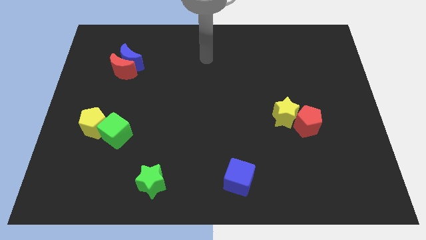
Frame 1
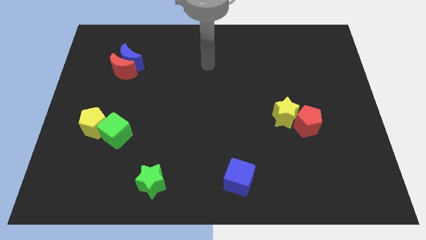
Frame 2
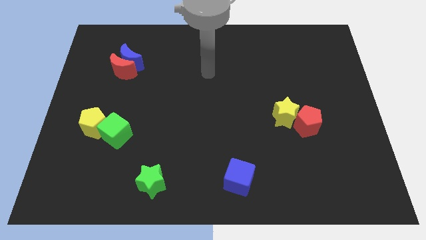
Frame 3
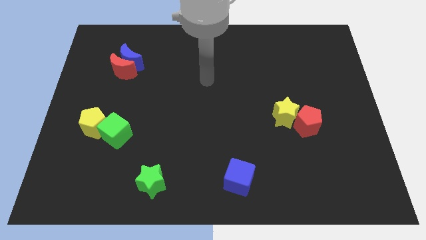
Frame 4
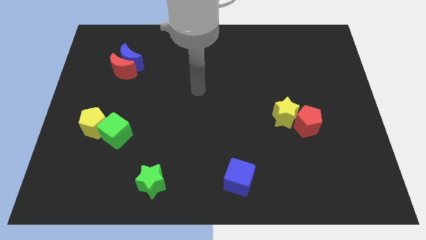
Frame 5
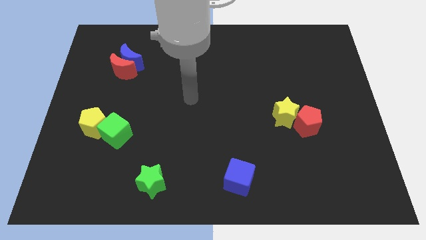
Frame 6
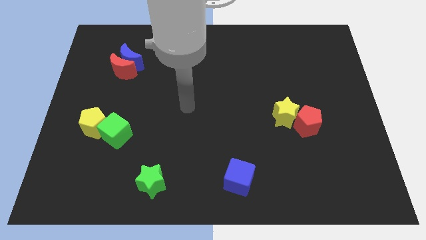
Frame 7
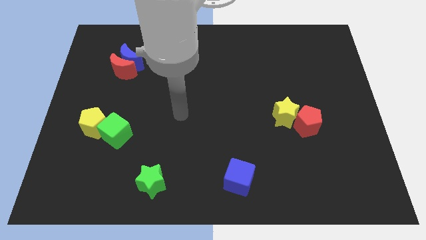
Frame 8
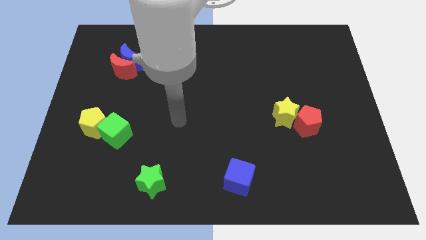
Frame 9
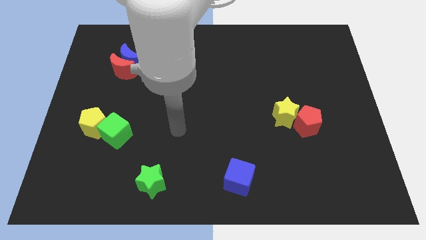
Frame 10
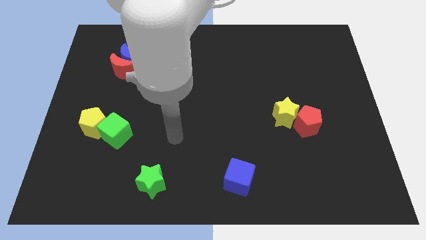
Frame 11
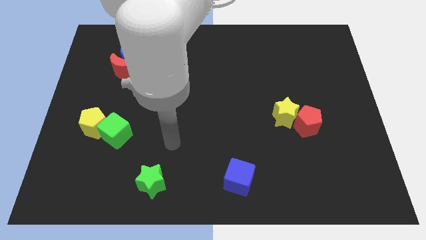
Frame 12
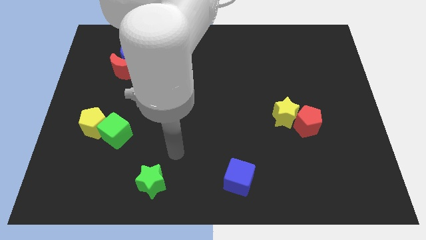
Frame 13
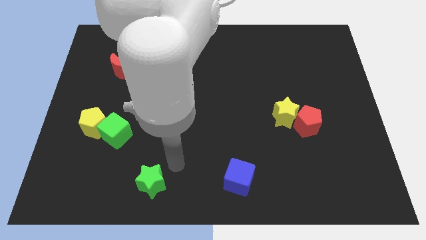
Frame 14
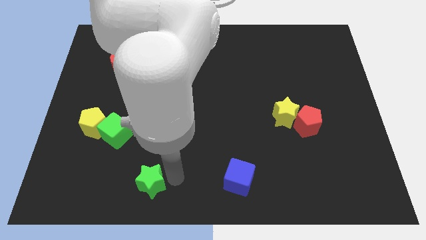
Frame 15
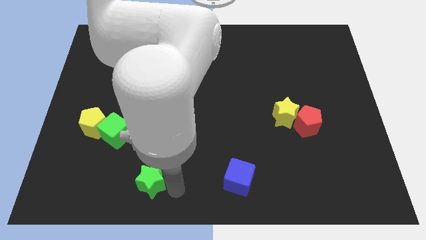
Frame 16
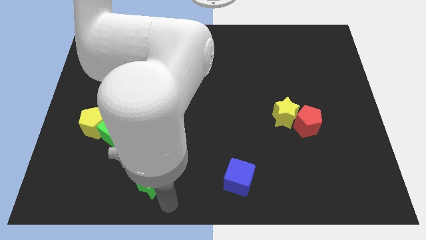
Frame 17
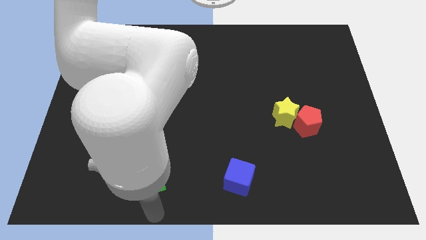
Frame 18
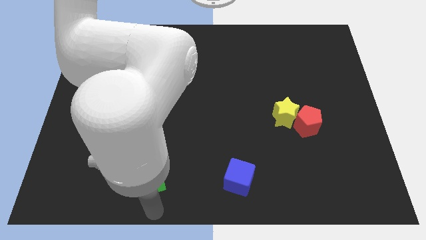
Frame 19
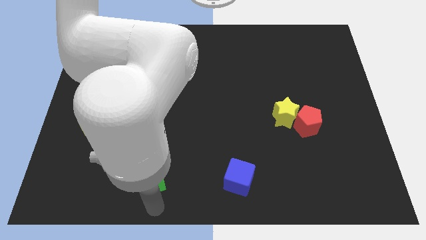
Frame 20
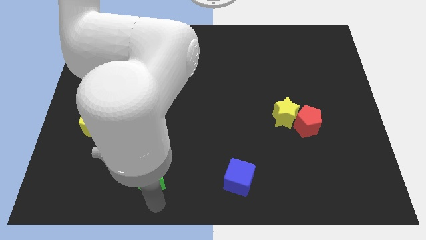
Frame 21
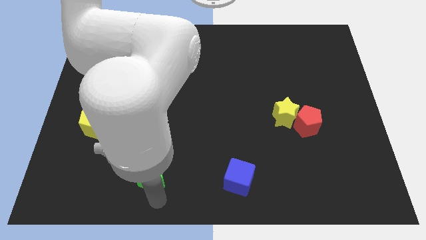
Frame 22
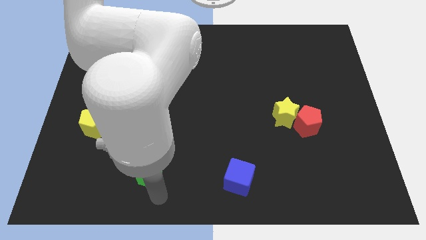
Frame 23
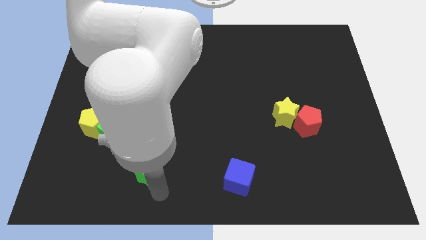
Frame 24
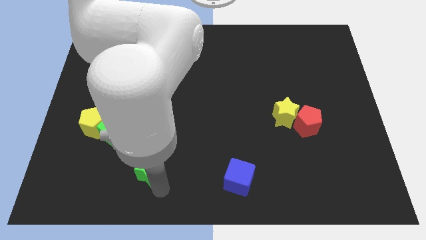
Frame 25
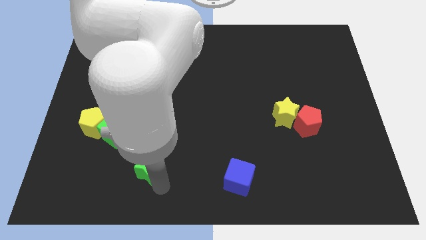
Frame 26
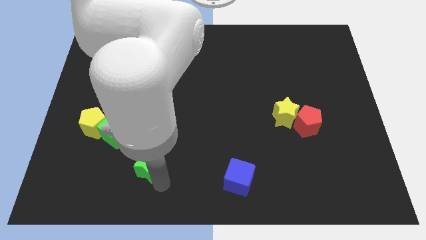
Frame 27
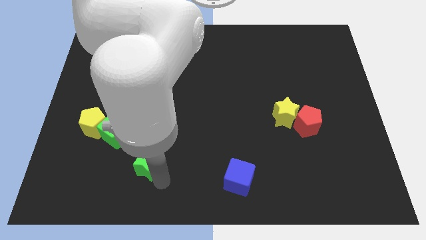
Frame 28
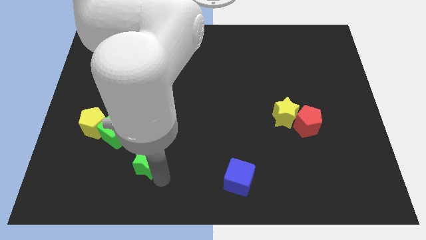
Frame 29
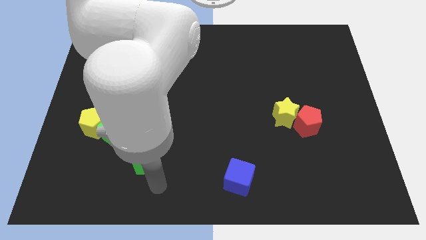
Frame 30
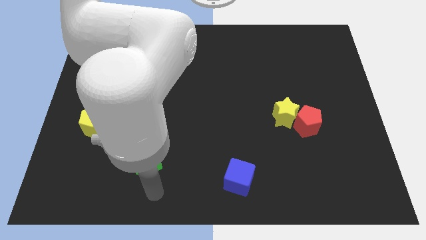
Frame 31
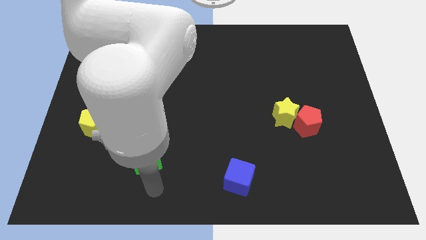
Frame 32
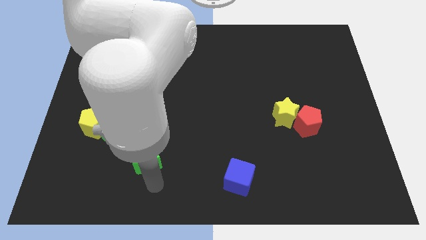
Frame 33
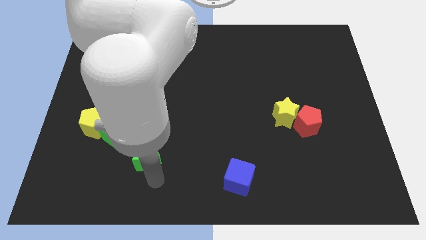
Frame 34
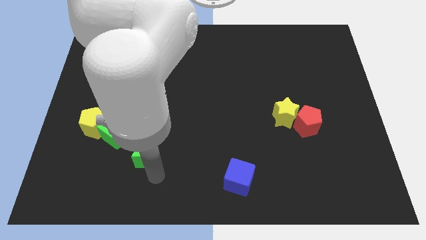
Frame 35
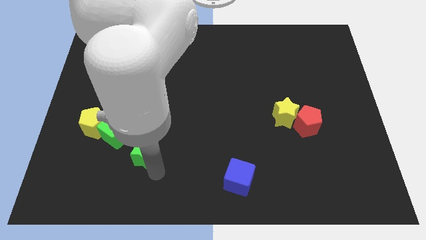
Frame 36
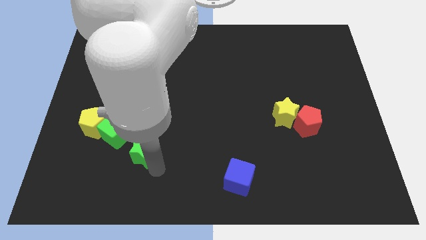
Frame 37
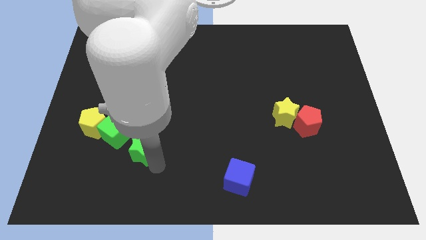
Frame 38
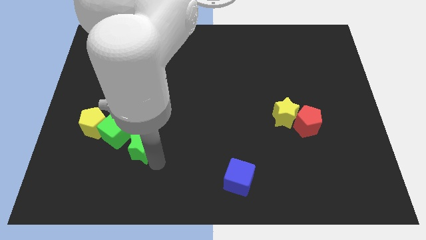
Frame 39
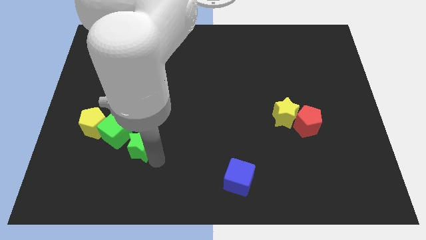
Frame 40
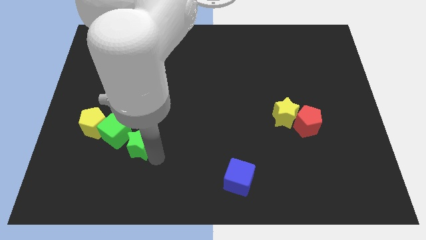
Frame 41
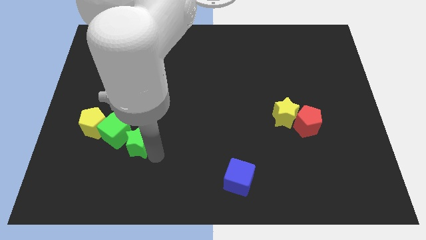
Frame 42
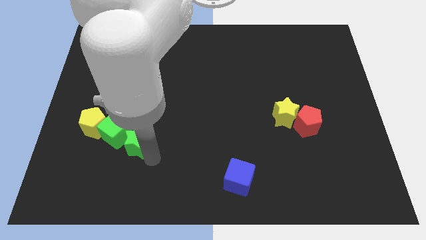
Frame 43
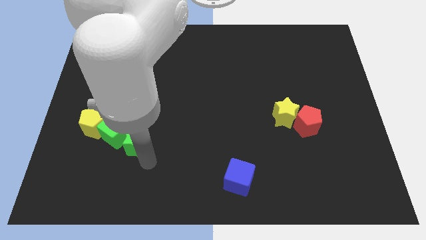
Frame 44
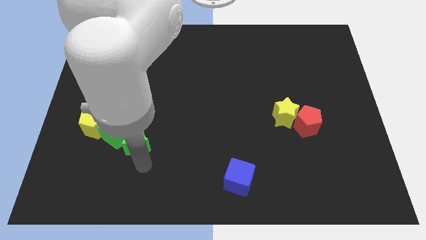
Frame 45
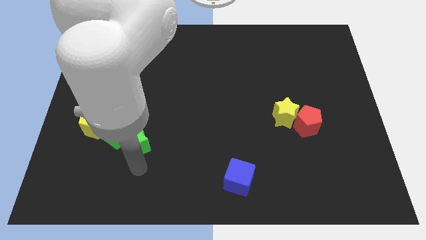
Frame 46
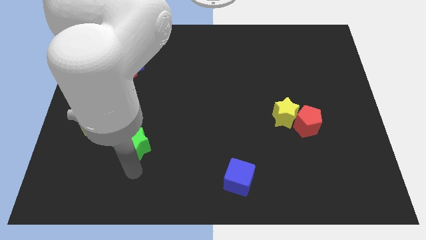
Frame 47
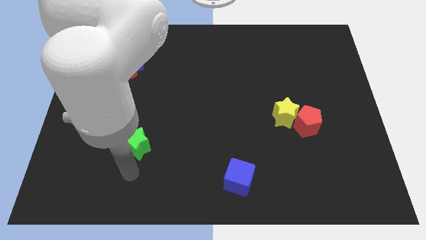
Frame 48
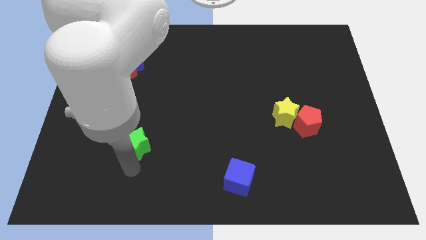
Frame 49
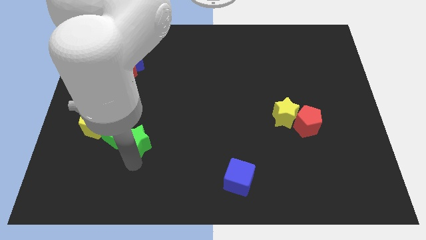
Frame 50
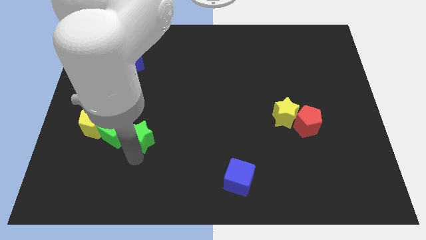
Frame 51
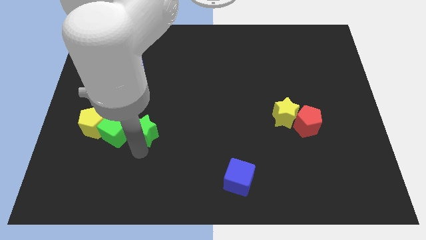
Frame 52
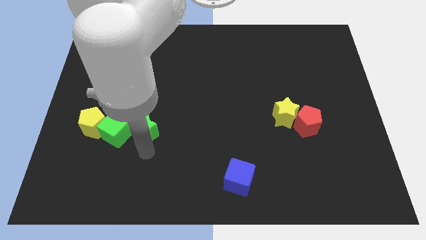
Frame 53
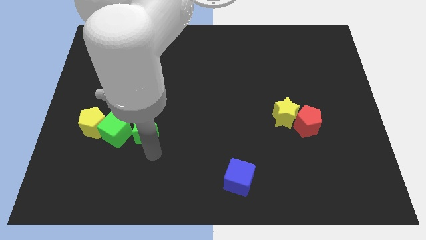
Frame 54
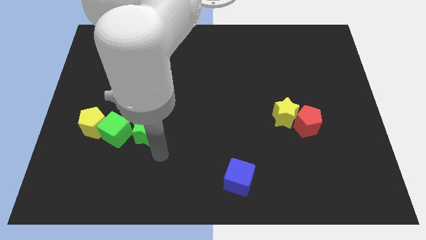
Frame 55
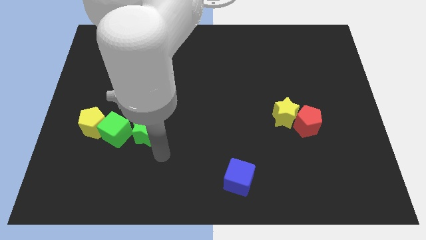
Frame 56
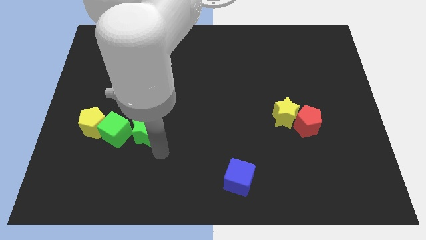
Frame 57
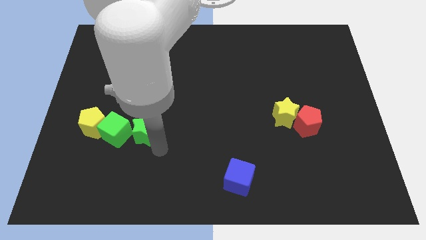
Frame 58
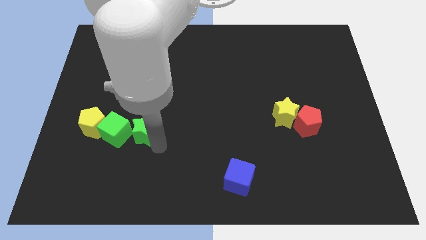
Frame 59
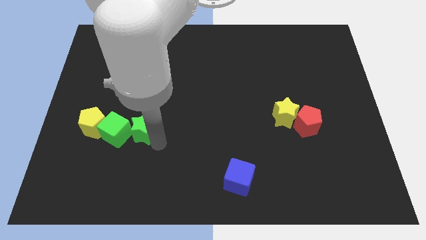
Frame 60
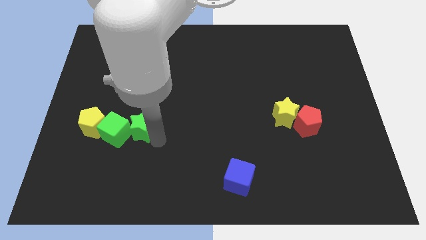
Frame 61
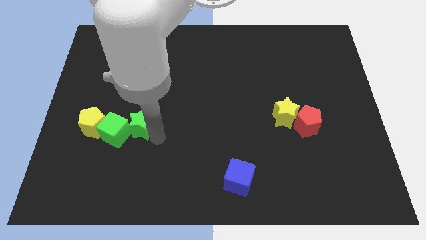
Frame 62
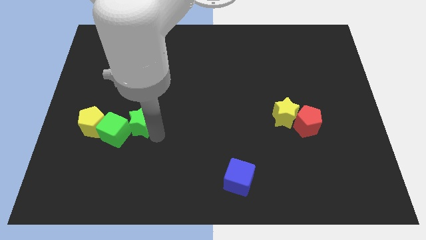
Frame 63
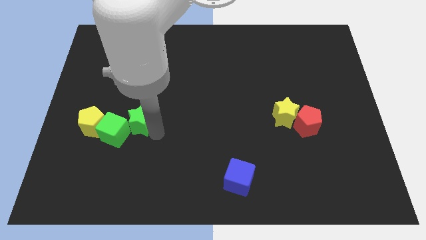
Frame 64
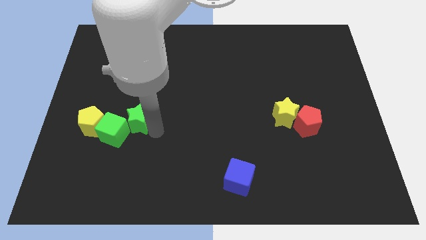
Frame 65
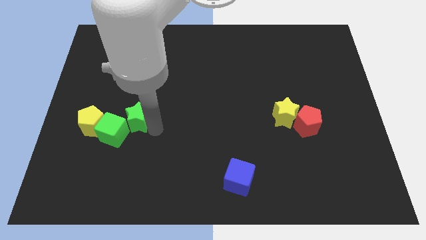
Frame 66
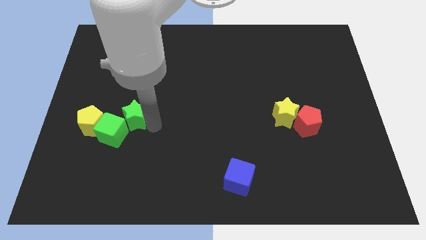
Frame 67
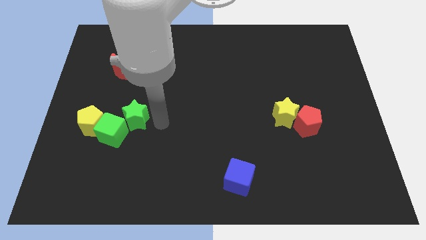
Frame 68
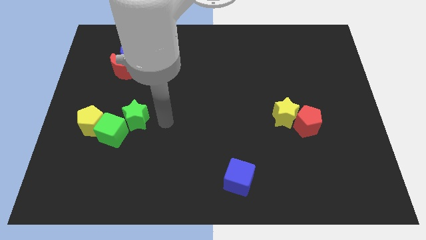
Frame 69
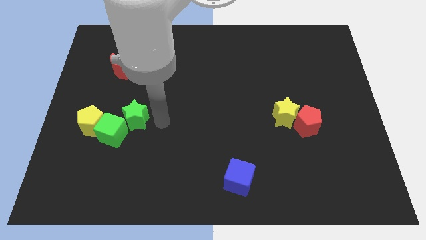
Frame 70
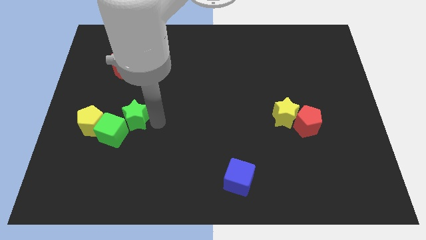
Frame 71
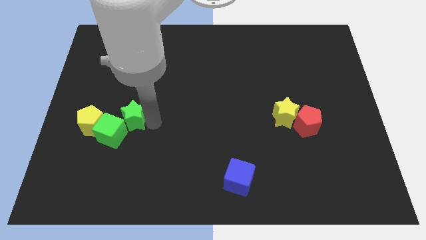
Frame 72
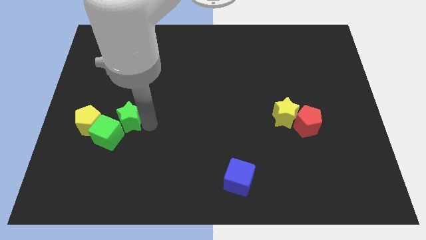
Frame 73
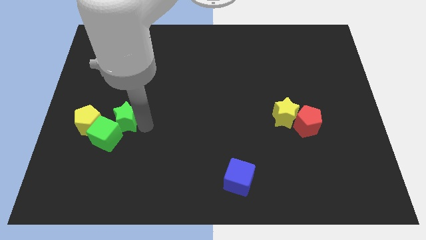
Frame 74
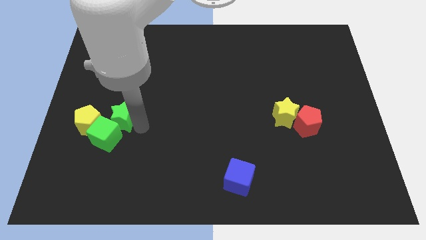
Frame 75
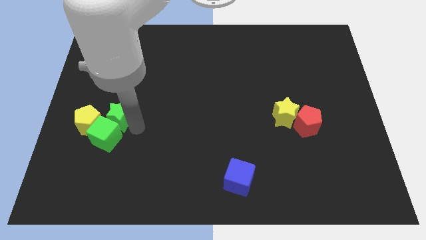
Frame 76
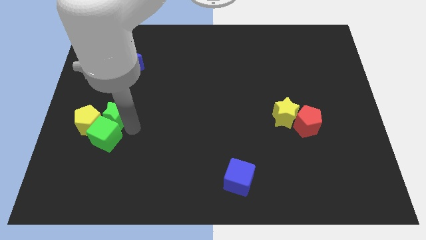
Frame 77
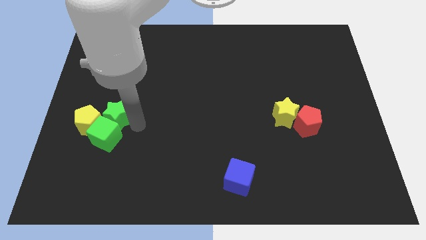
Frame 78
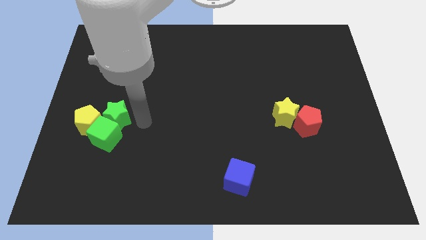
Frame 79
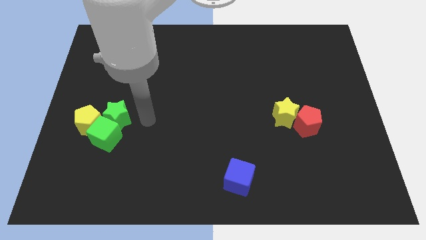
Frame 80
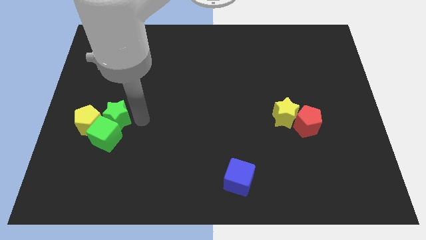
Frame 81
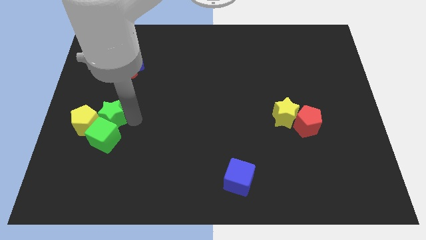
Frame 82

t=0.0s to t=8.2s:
slide the green star to the top left side of the green cube
